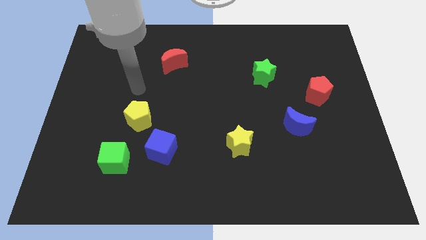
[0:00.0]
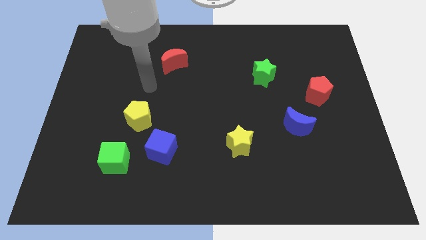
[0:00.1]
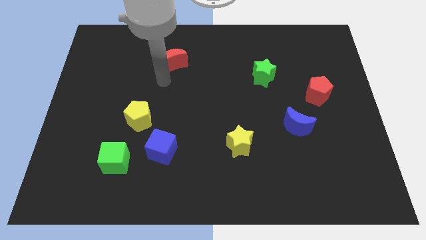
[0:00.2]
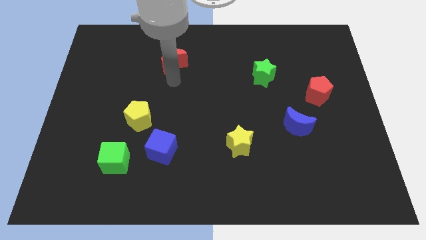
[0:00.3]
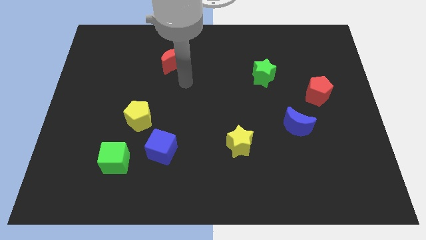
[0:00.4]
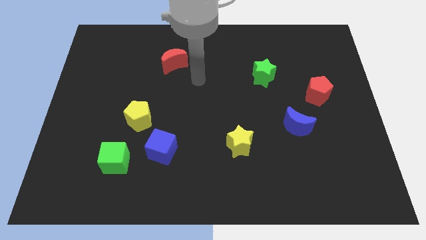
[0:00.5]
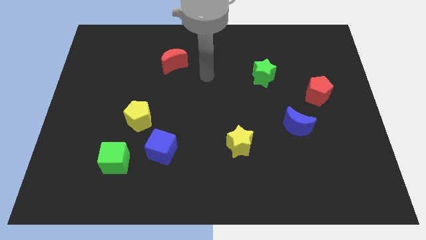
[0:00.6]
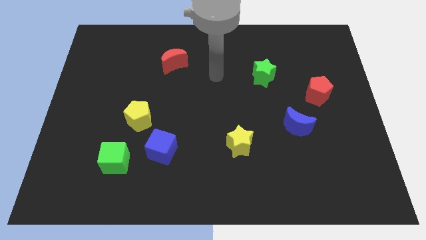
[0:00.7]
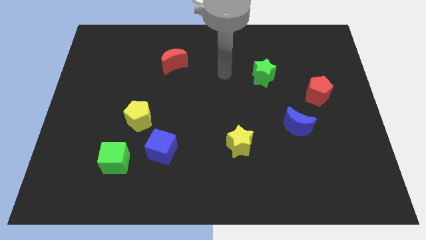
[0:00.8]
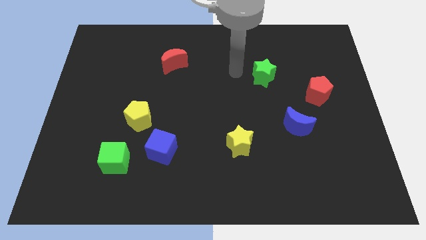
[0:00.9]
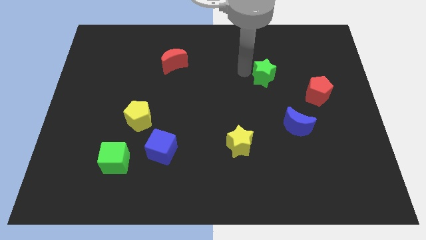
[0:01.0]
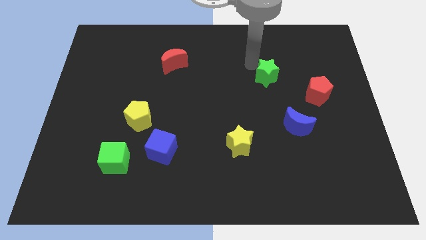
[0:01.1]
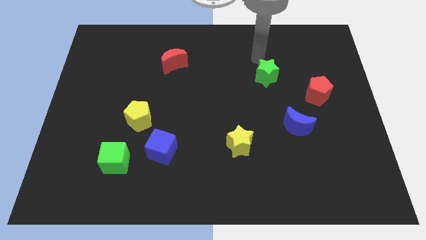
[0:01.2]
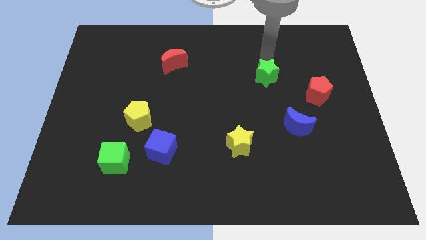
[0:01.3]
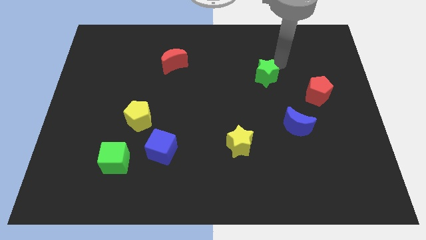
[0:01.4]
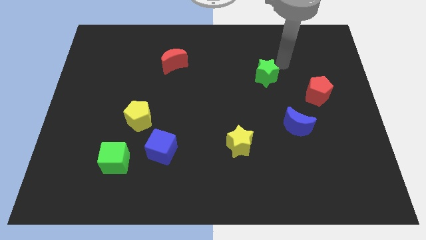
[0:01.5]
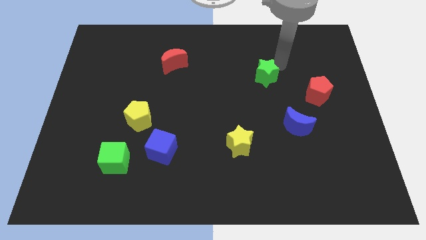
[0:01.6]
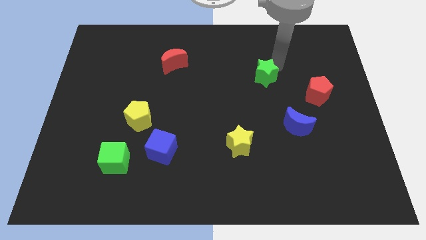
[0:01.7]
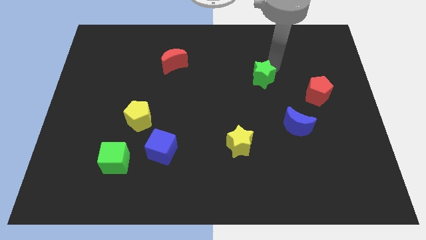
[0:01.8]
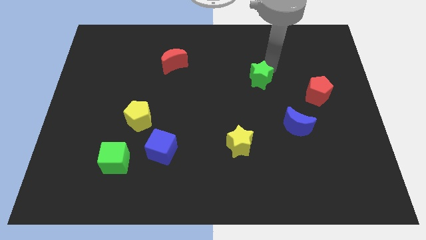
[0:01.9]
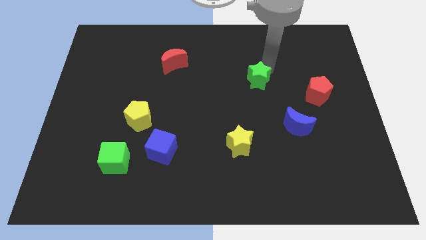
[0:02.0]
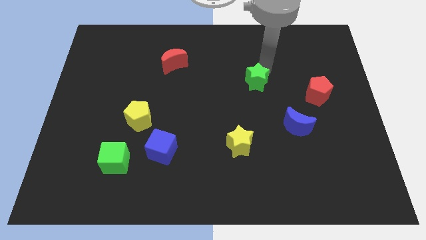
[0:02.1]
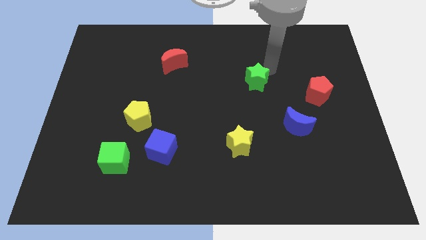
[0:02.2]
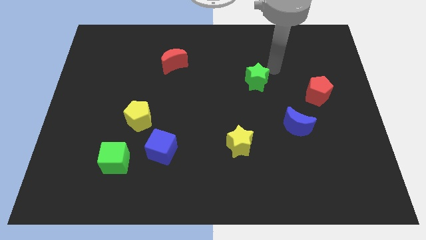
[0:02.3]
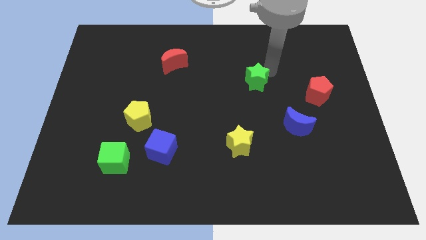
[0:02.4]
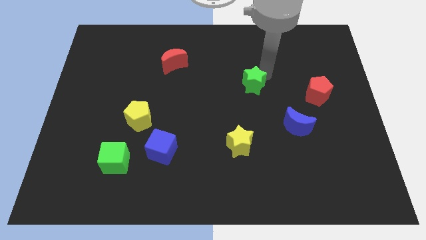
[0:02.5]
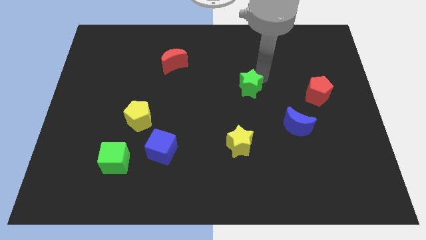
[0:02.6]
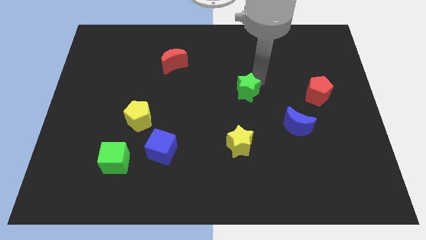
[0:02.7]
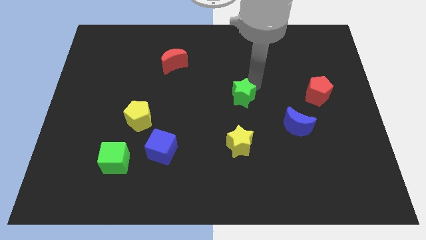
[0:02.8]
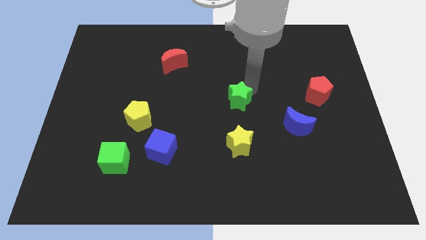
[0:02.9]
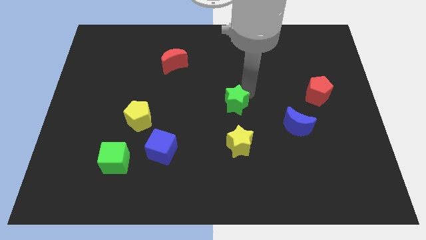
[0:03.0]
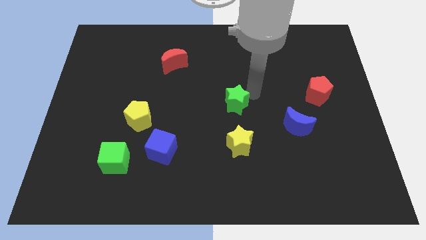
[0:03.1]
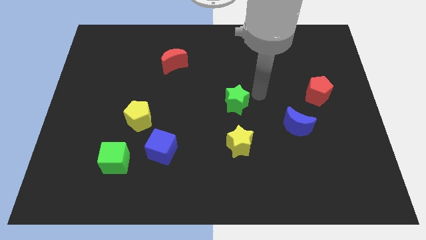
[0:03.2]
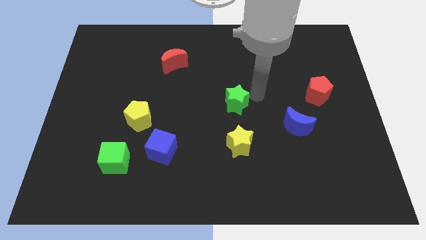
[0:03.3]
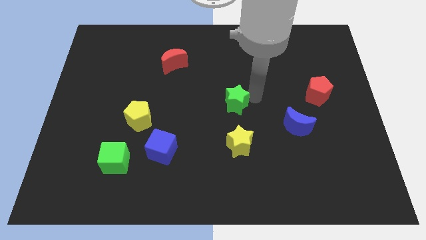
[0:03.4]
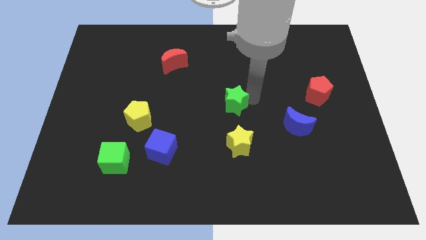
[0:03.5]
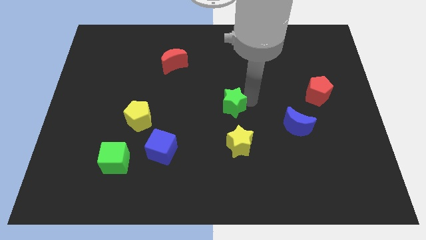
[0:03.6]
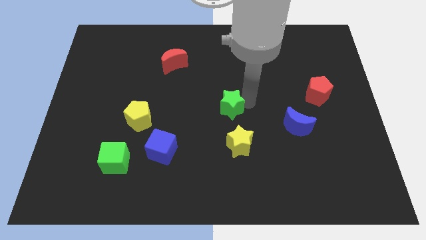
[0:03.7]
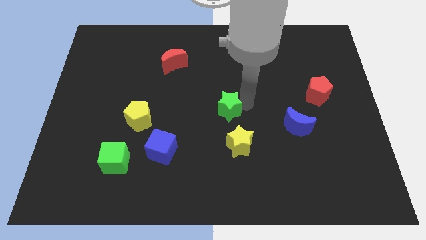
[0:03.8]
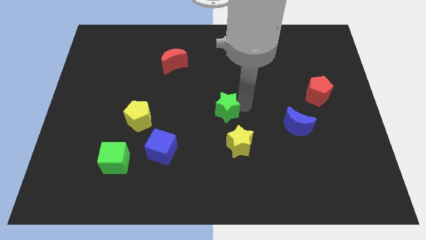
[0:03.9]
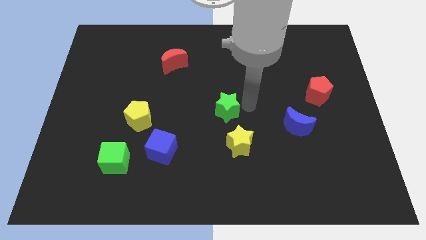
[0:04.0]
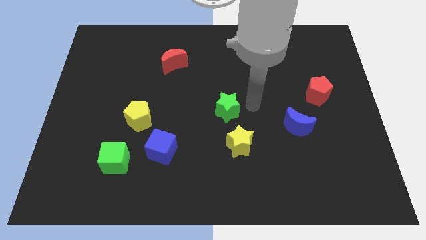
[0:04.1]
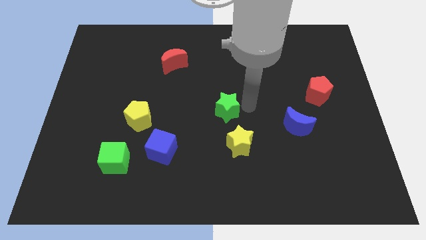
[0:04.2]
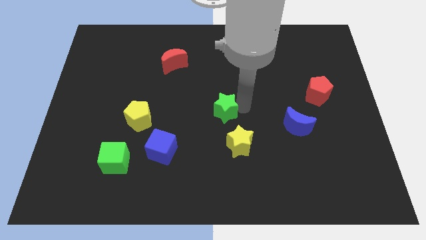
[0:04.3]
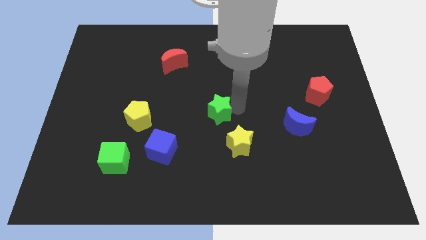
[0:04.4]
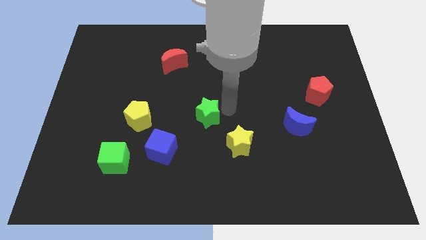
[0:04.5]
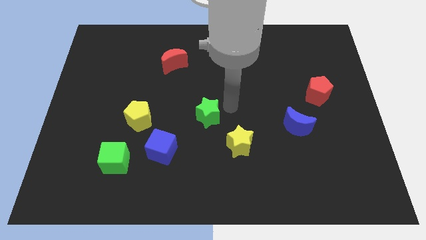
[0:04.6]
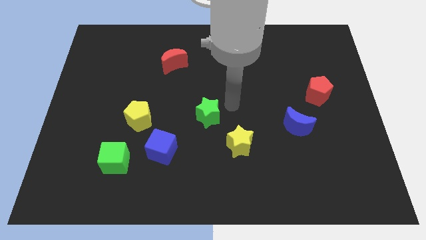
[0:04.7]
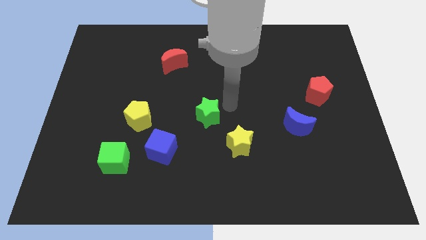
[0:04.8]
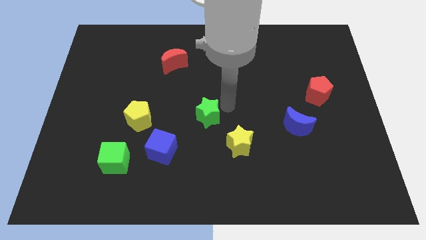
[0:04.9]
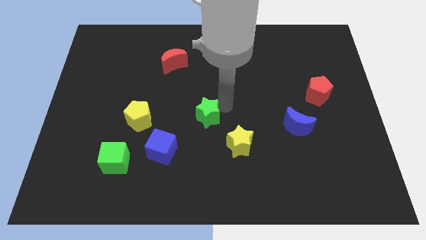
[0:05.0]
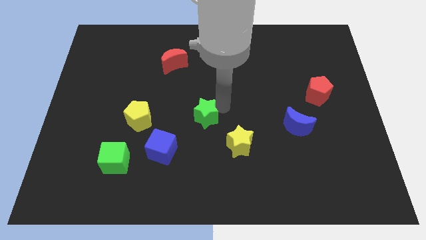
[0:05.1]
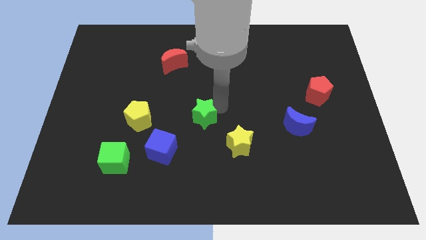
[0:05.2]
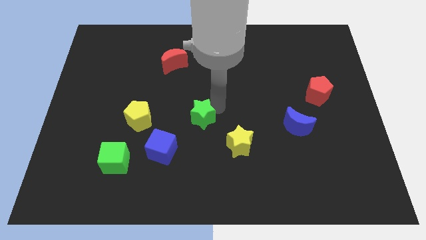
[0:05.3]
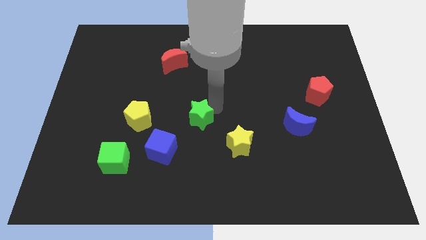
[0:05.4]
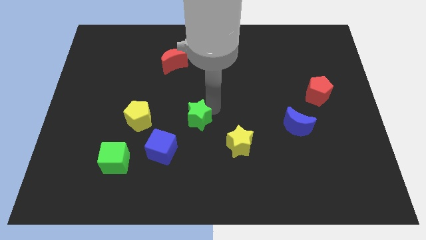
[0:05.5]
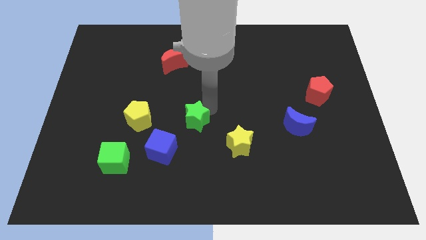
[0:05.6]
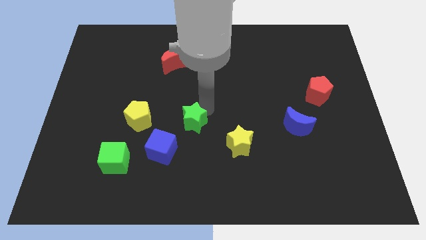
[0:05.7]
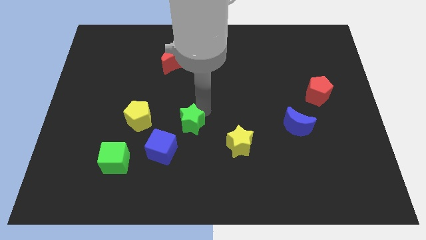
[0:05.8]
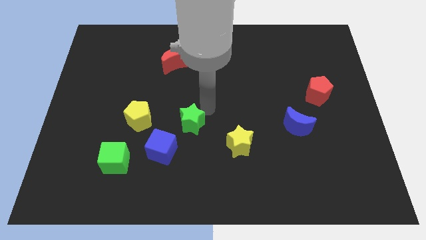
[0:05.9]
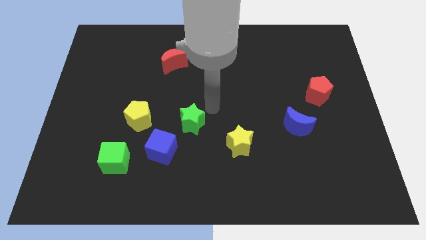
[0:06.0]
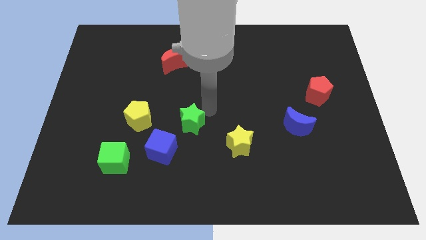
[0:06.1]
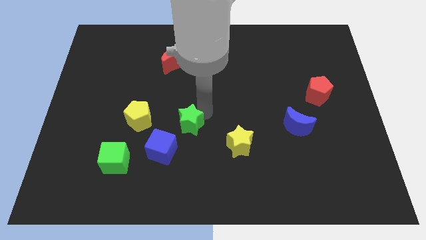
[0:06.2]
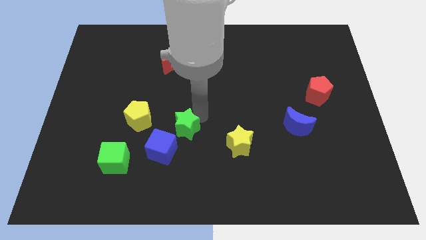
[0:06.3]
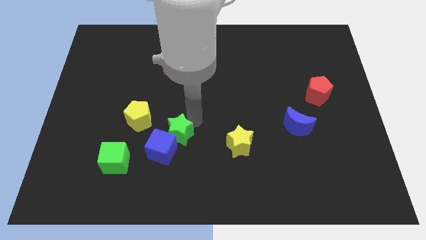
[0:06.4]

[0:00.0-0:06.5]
put the green star to the blue cube

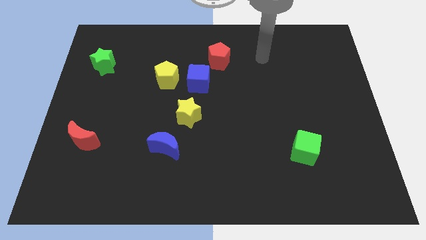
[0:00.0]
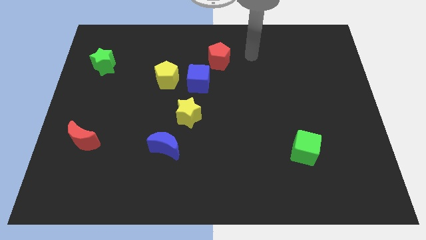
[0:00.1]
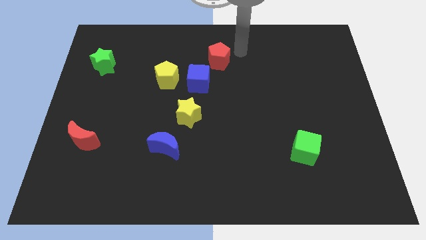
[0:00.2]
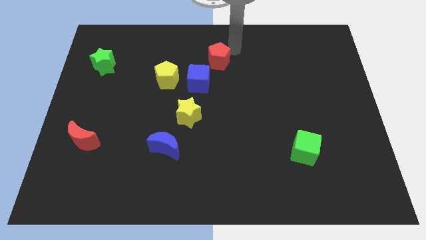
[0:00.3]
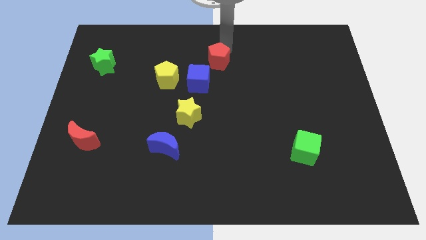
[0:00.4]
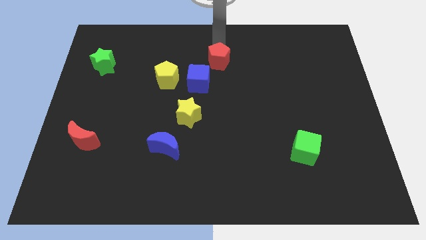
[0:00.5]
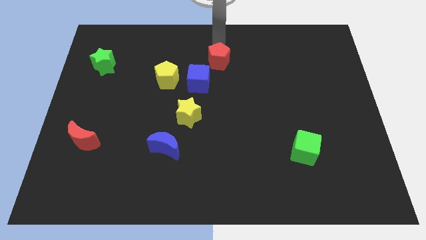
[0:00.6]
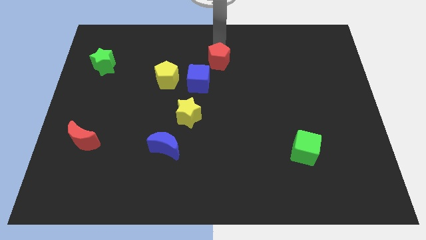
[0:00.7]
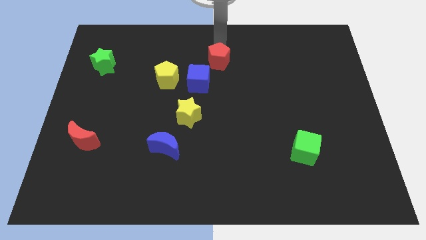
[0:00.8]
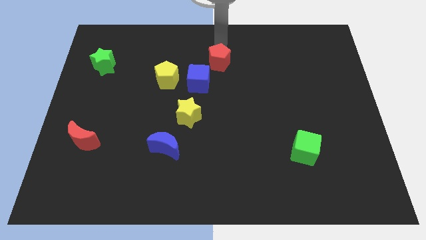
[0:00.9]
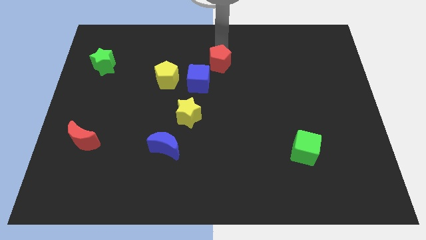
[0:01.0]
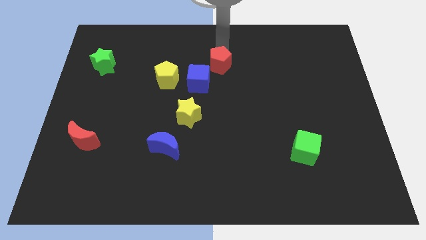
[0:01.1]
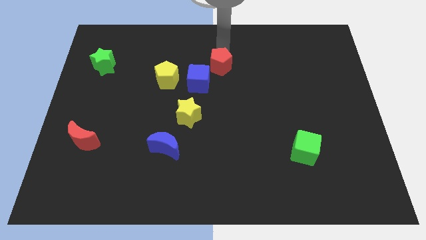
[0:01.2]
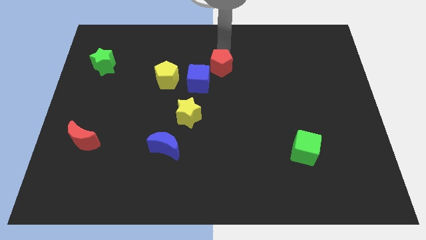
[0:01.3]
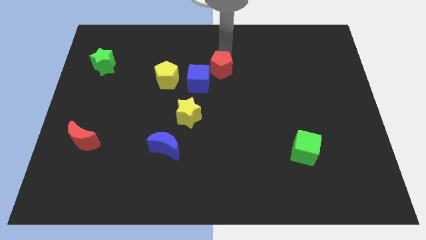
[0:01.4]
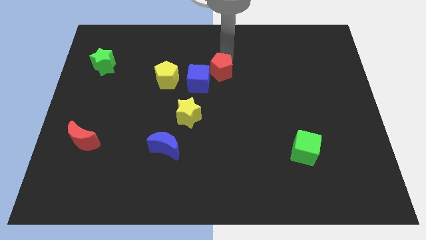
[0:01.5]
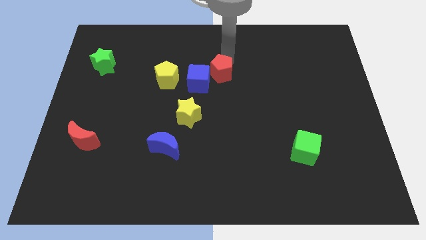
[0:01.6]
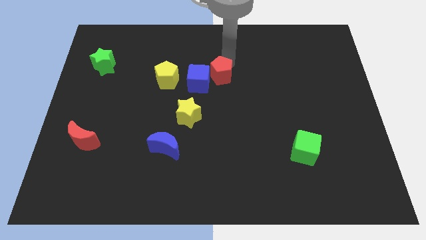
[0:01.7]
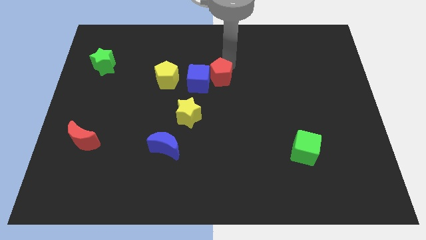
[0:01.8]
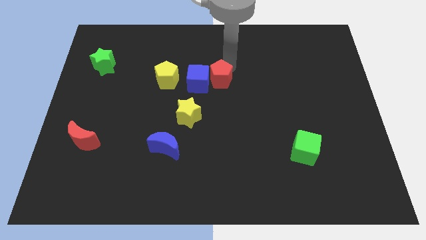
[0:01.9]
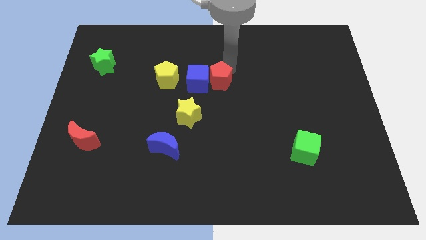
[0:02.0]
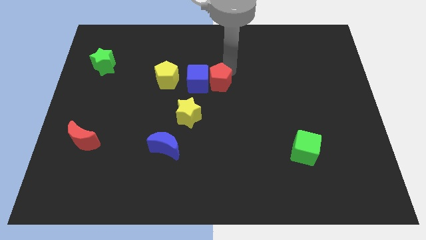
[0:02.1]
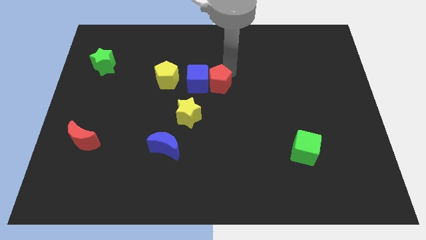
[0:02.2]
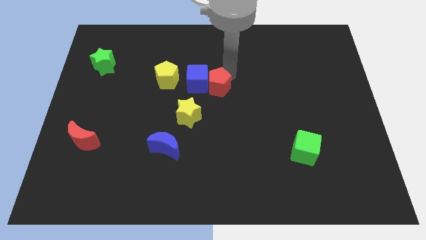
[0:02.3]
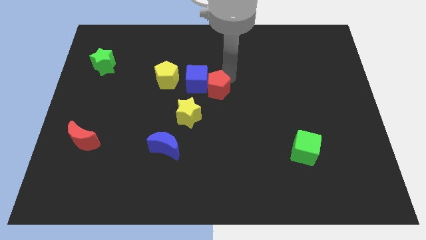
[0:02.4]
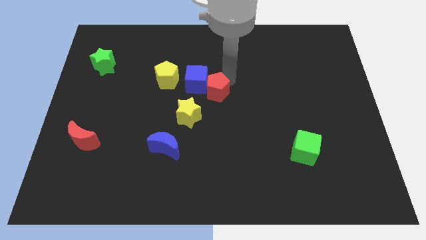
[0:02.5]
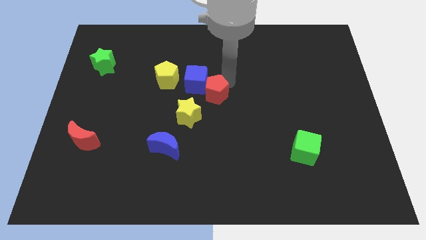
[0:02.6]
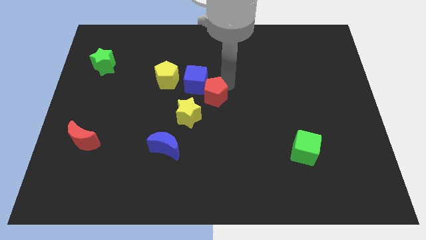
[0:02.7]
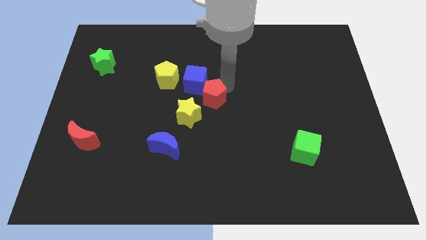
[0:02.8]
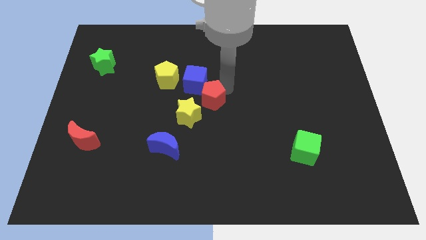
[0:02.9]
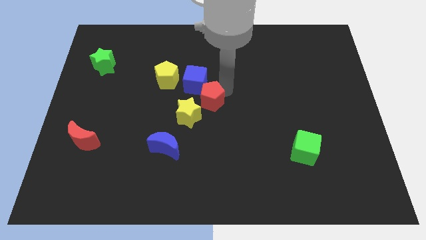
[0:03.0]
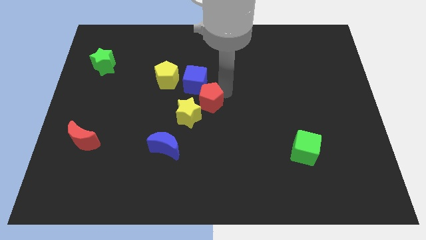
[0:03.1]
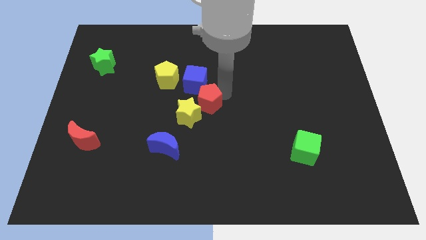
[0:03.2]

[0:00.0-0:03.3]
move the red pentagon towards the yellow star
